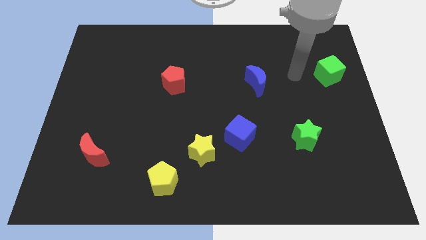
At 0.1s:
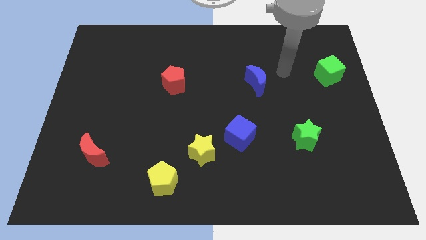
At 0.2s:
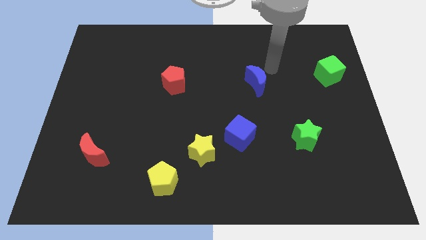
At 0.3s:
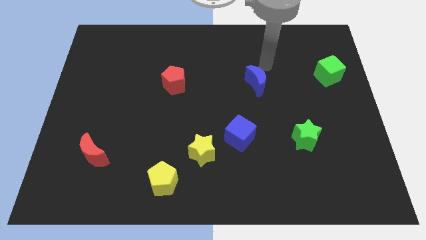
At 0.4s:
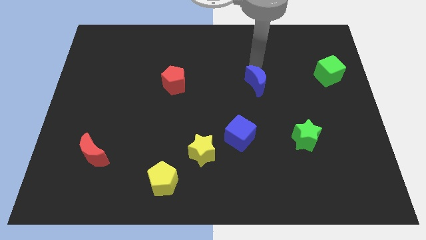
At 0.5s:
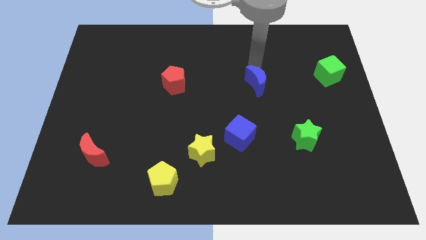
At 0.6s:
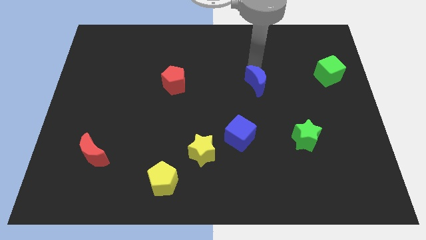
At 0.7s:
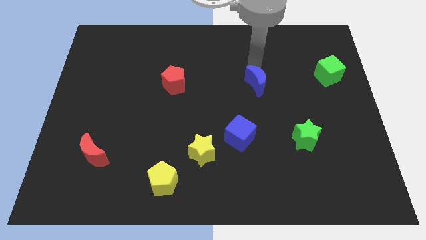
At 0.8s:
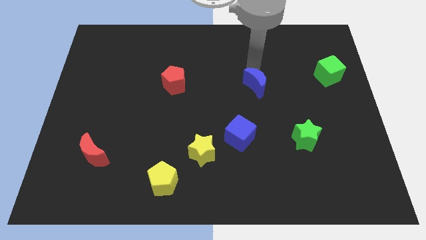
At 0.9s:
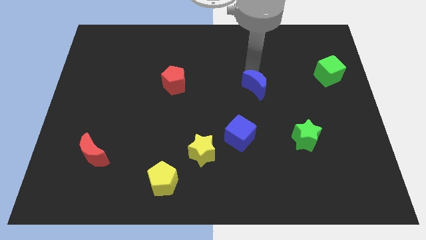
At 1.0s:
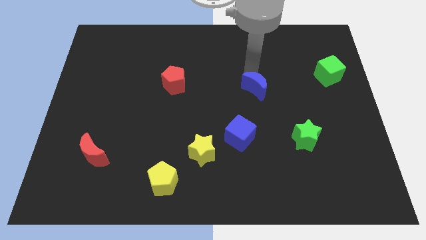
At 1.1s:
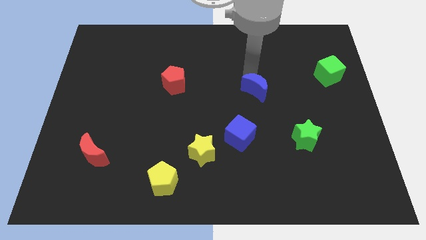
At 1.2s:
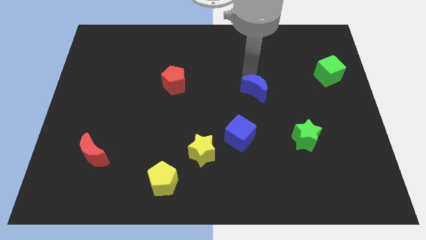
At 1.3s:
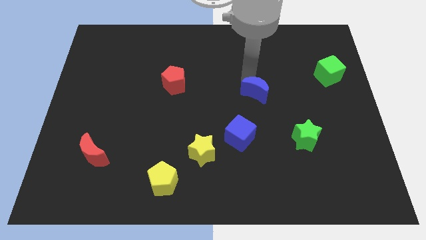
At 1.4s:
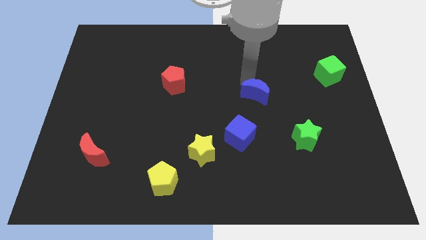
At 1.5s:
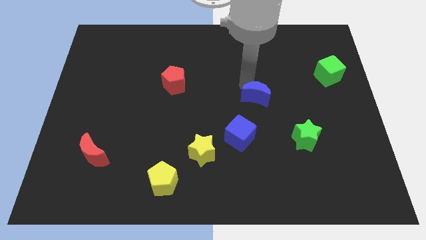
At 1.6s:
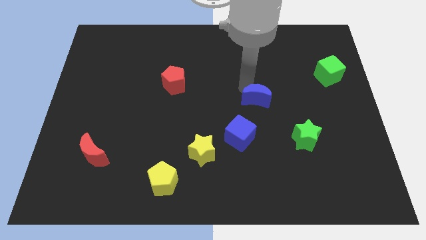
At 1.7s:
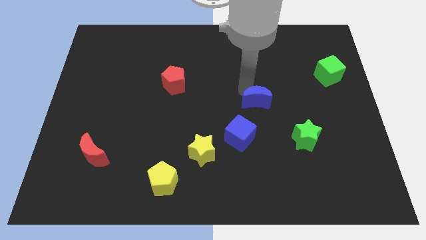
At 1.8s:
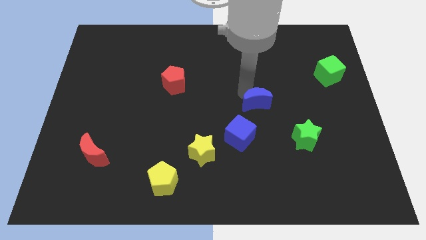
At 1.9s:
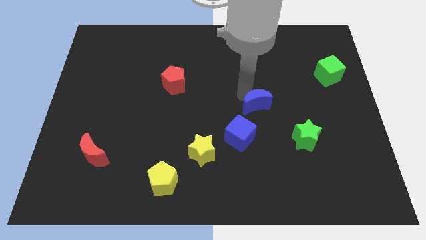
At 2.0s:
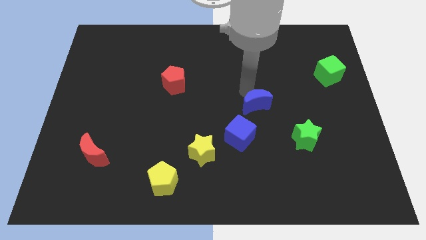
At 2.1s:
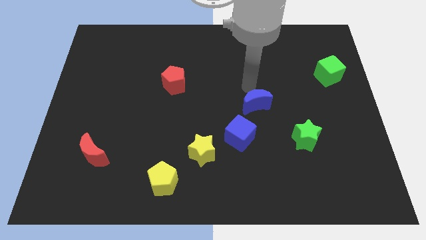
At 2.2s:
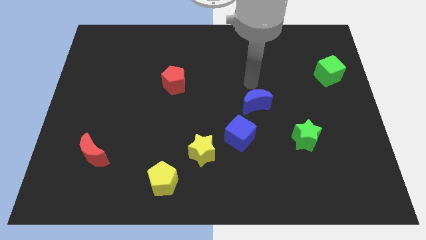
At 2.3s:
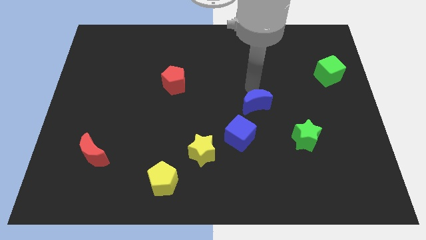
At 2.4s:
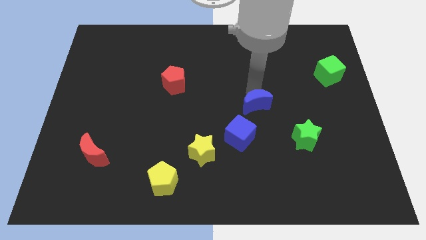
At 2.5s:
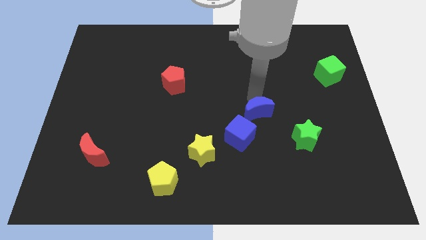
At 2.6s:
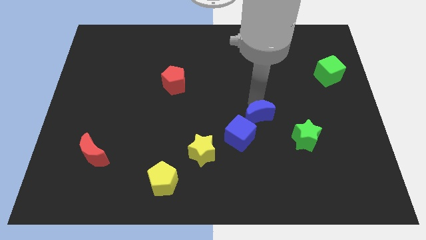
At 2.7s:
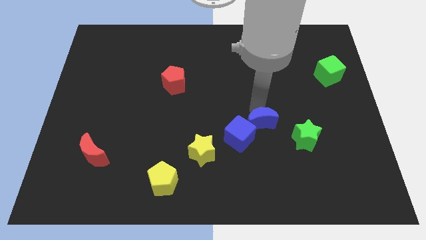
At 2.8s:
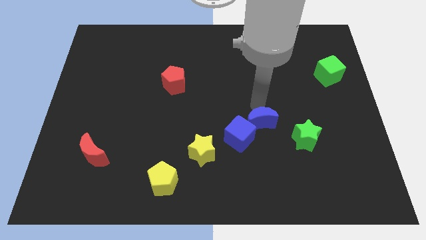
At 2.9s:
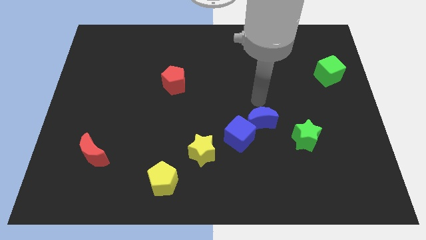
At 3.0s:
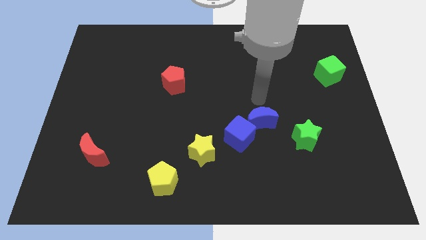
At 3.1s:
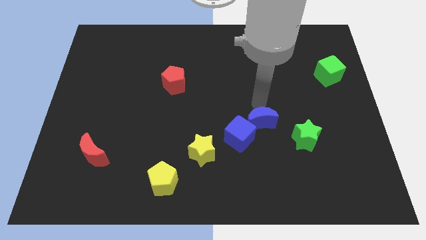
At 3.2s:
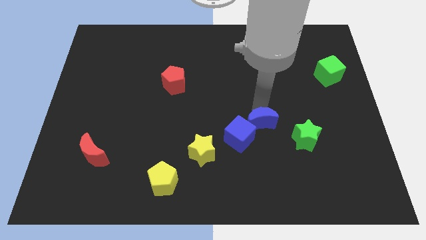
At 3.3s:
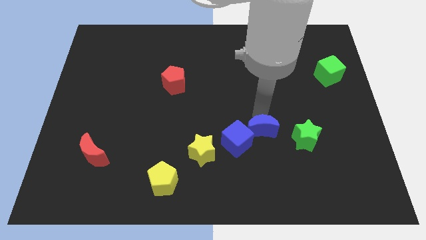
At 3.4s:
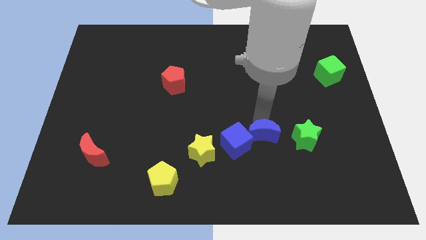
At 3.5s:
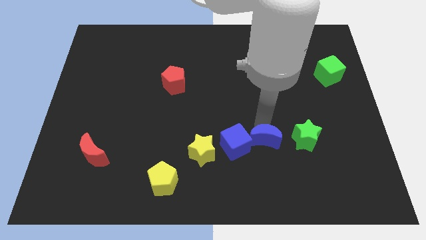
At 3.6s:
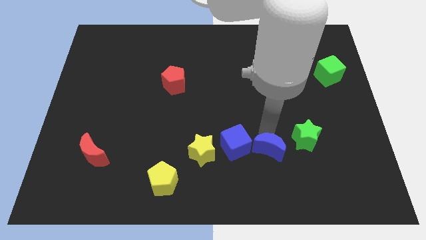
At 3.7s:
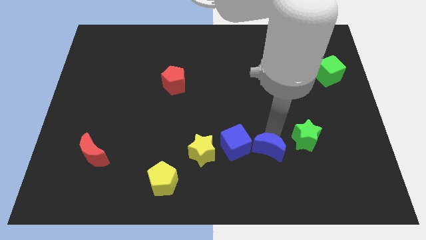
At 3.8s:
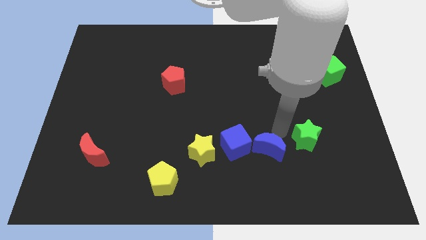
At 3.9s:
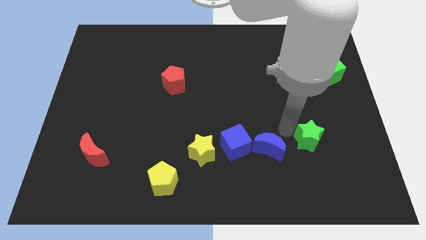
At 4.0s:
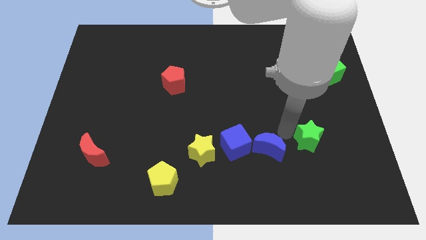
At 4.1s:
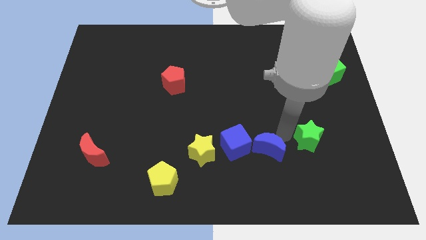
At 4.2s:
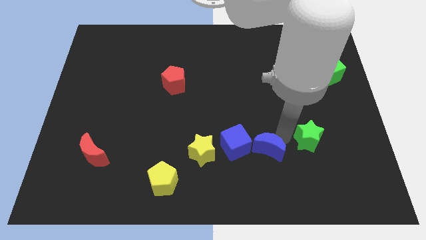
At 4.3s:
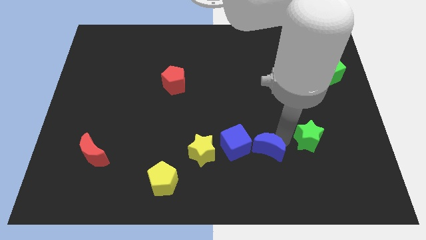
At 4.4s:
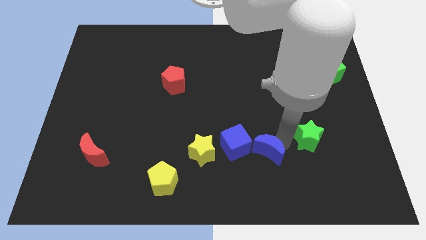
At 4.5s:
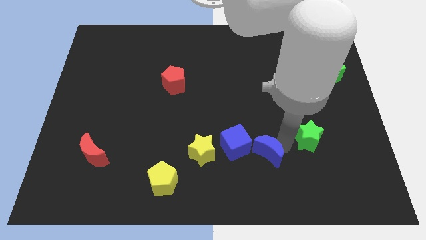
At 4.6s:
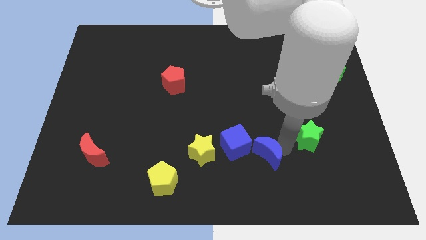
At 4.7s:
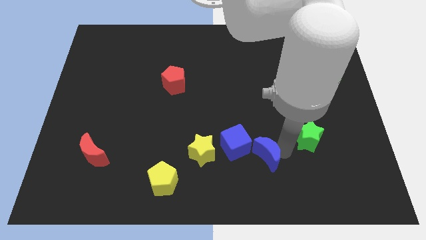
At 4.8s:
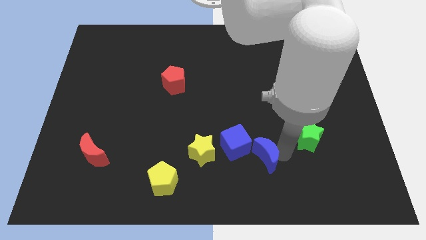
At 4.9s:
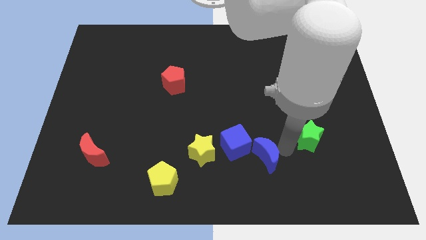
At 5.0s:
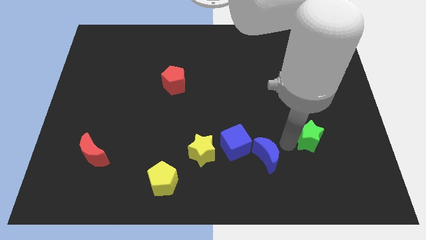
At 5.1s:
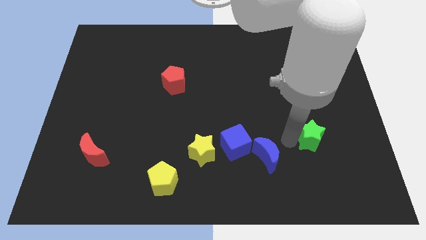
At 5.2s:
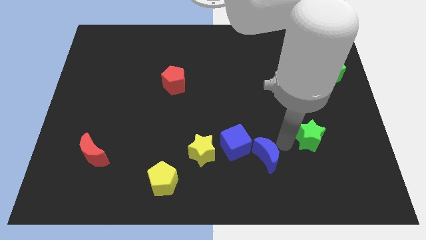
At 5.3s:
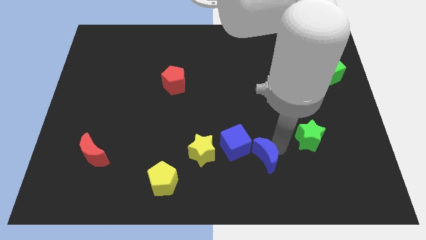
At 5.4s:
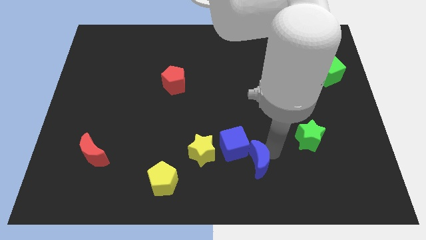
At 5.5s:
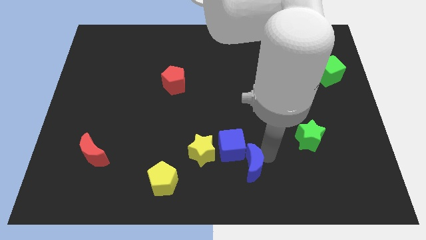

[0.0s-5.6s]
move the blue moon to the bottom
